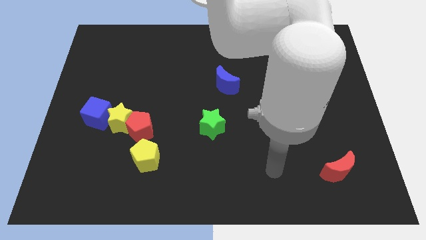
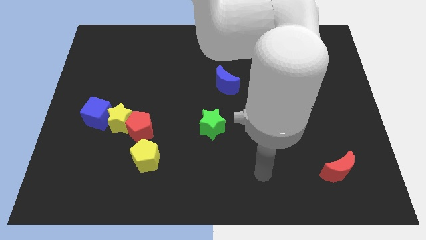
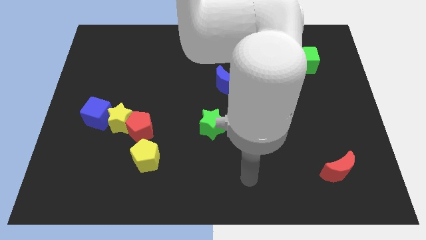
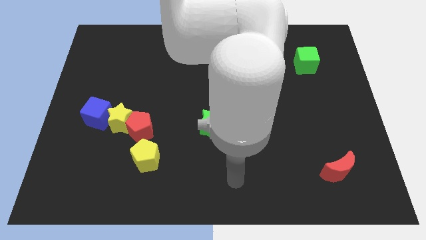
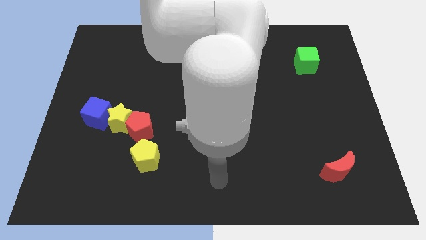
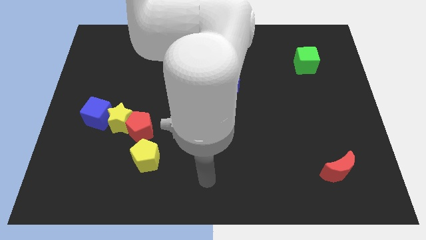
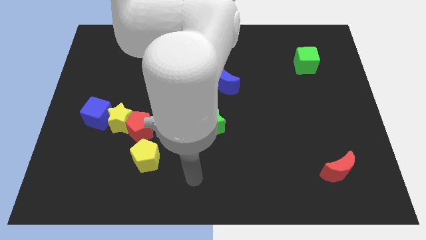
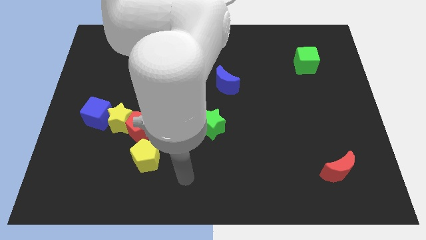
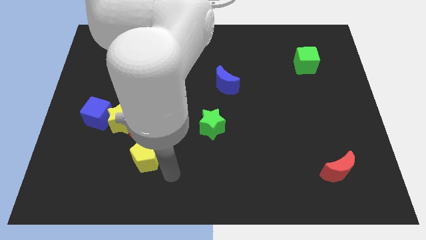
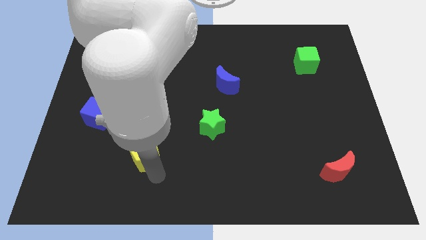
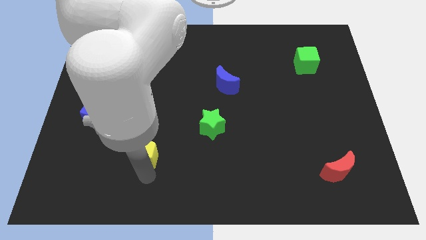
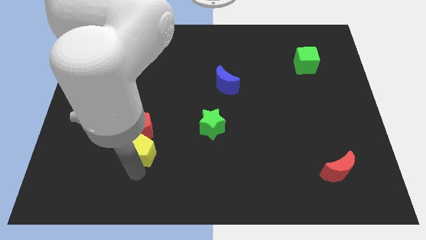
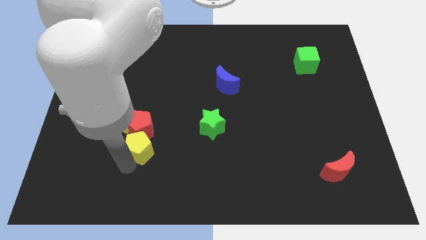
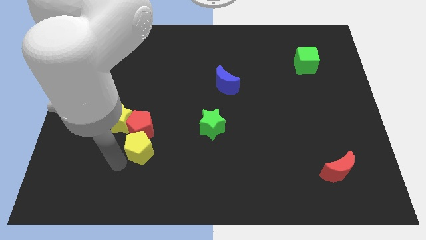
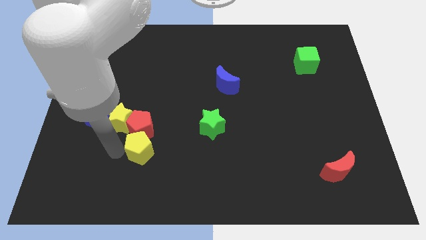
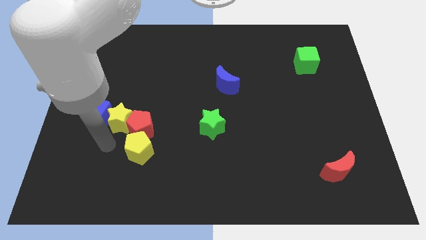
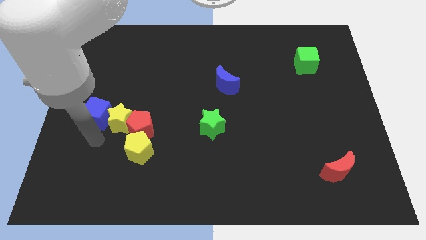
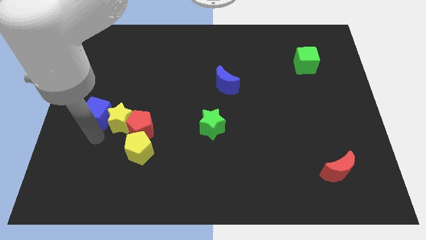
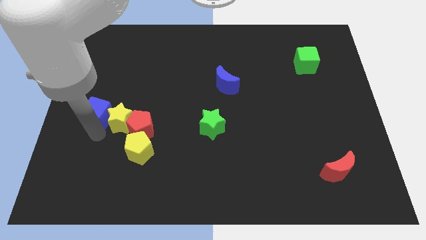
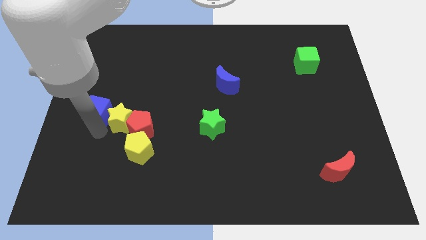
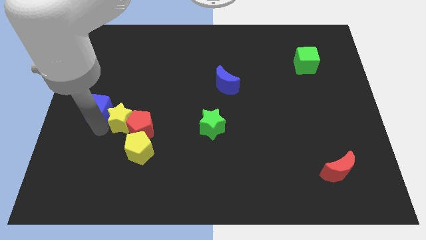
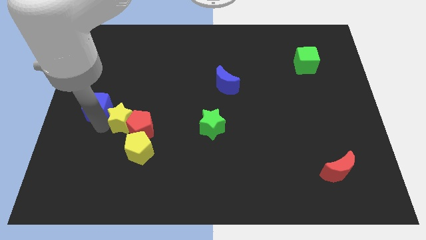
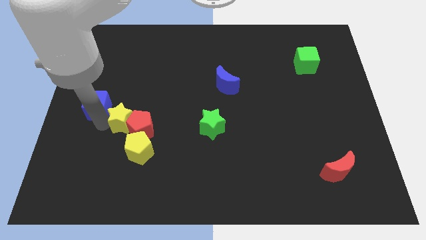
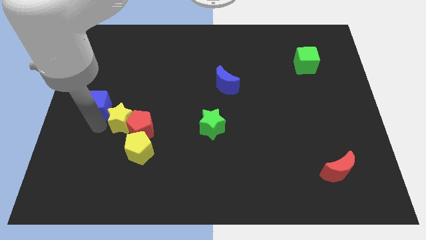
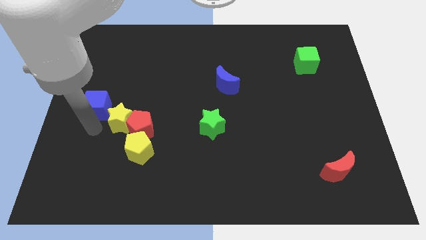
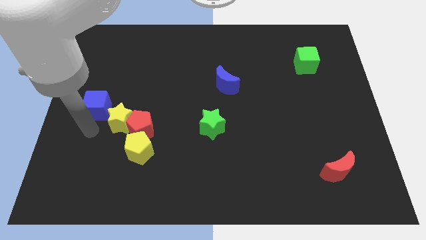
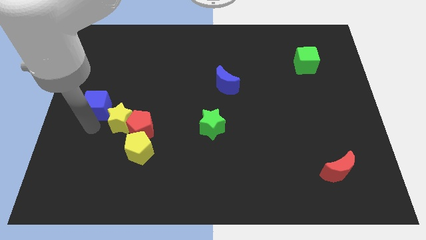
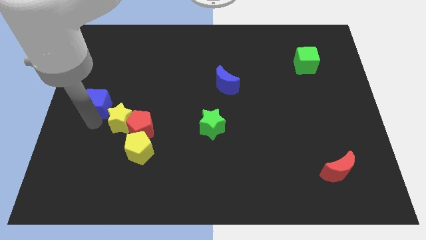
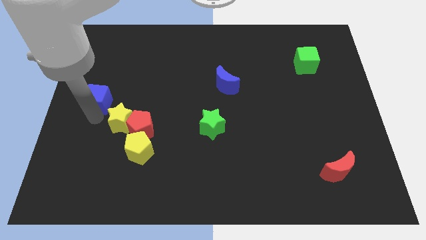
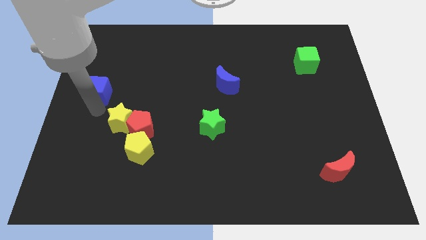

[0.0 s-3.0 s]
move the blue cube a little up

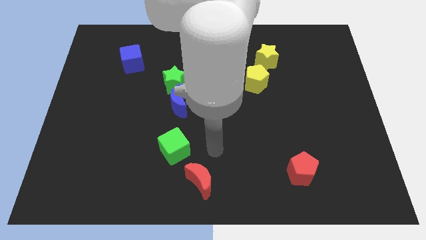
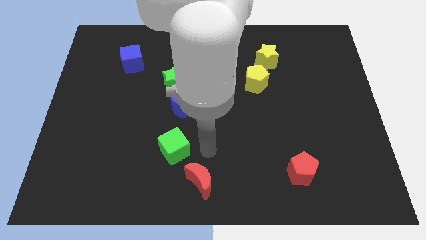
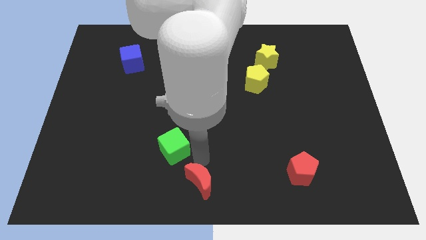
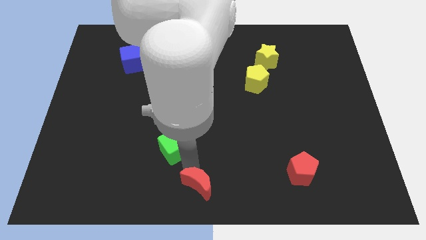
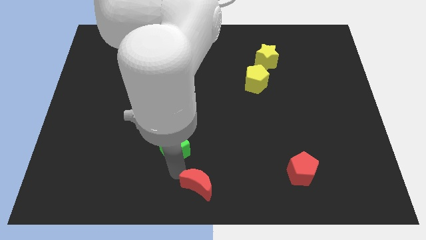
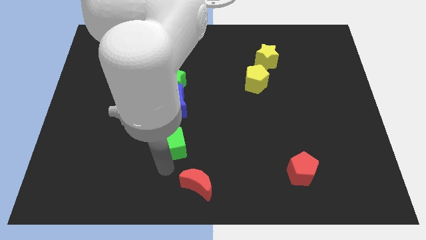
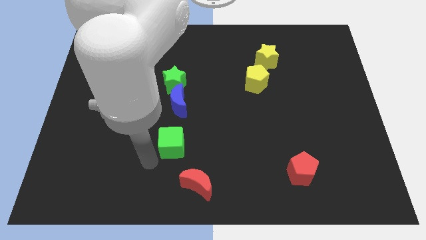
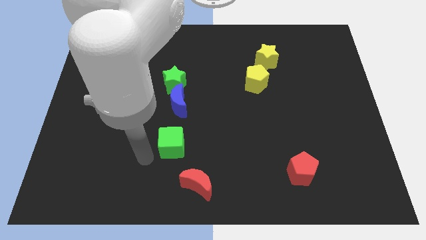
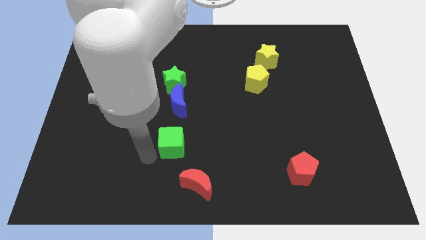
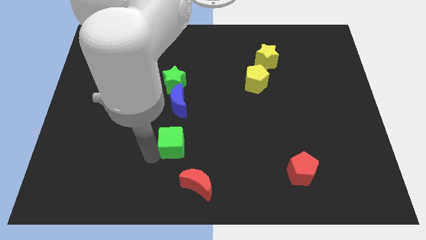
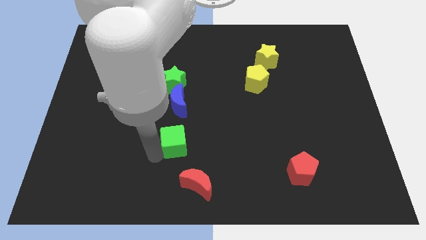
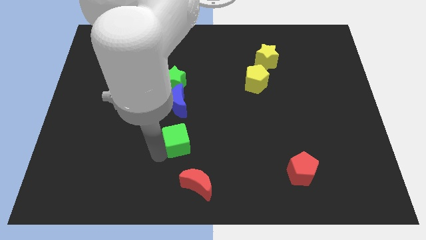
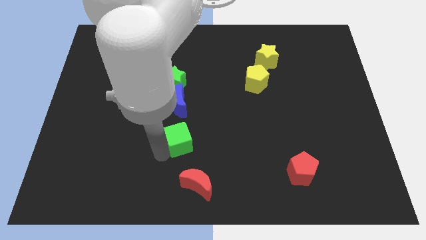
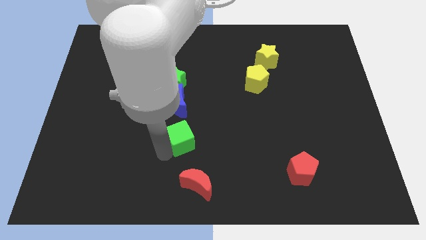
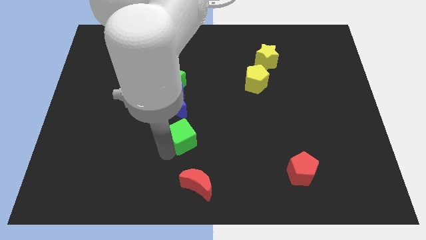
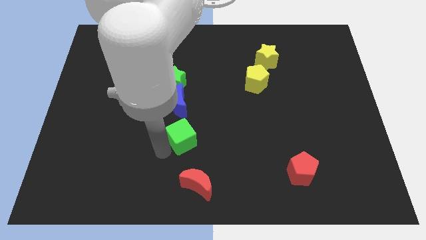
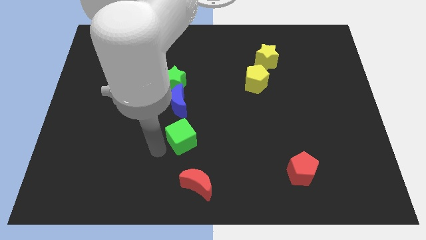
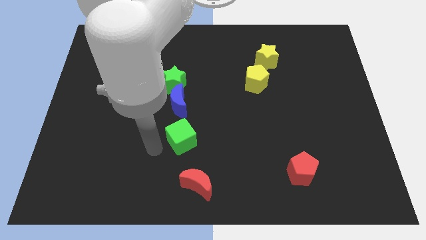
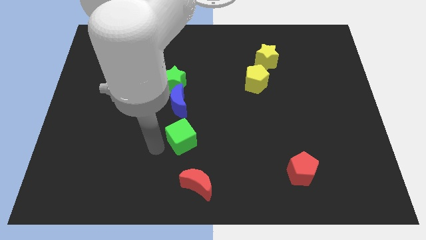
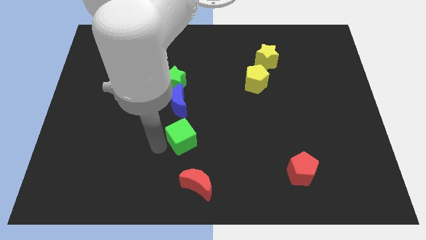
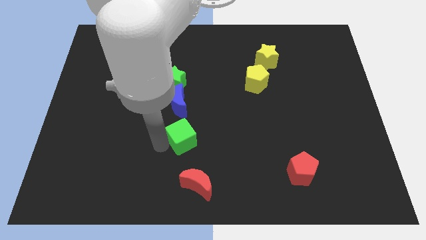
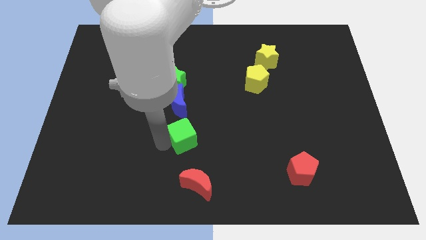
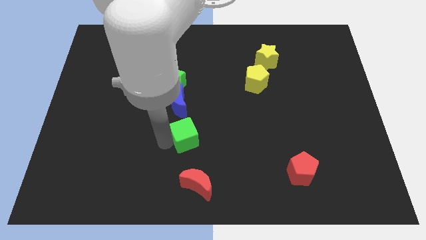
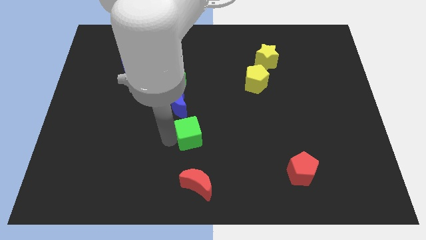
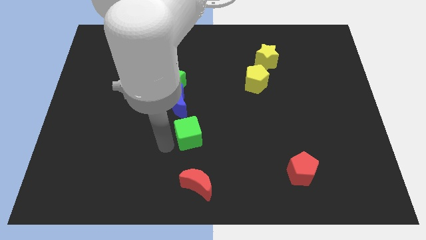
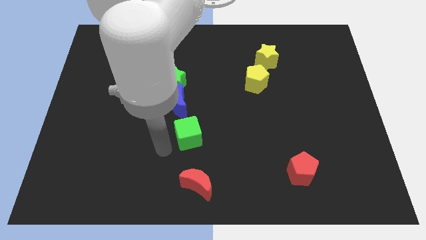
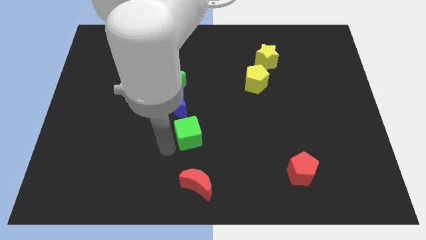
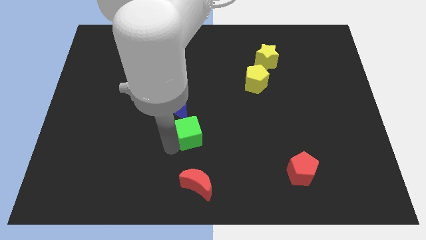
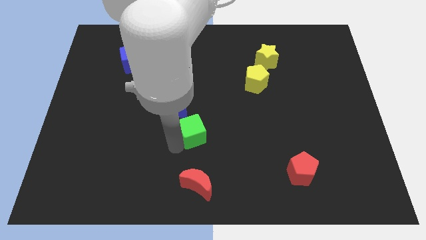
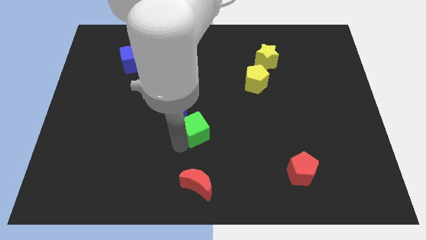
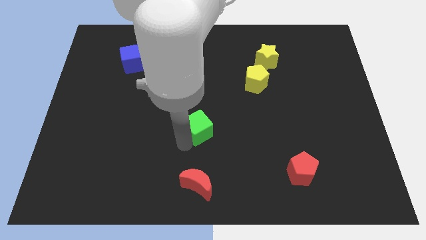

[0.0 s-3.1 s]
move the green cube a bit up and to the right

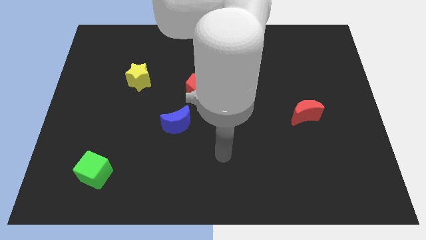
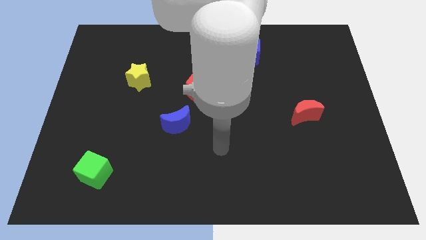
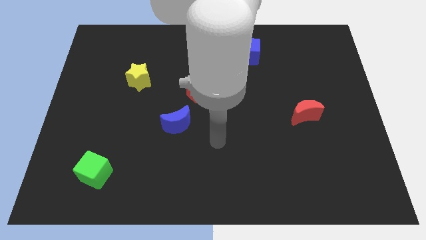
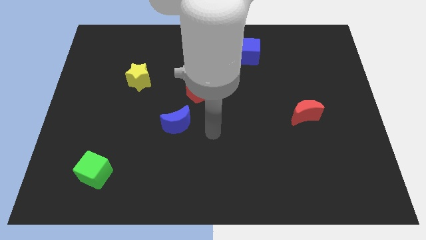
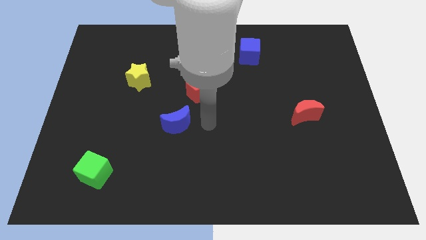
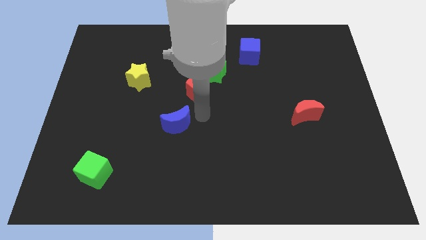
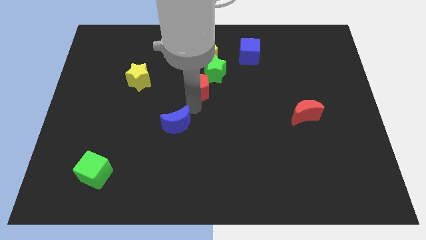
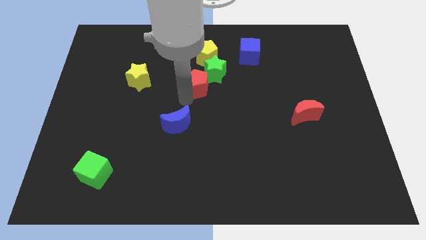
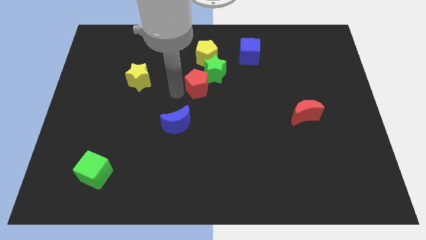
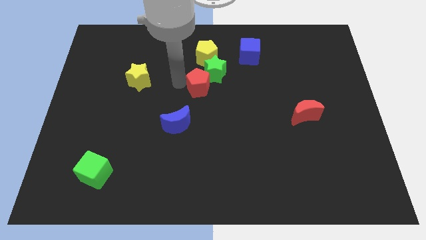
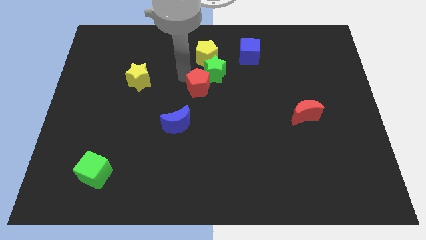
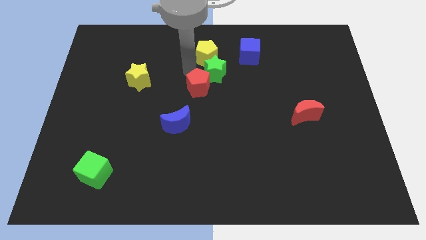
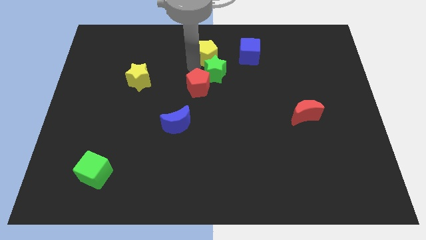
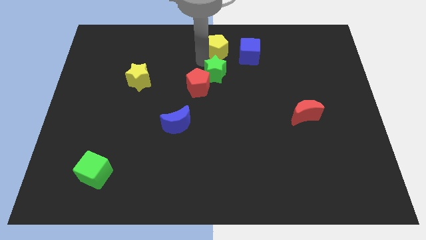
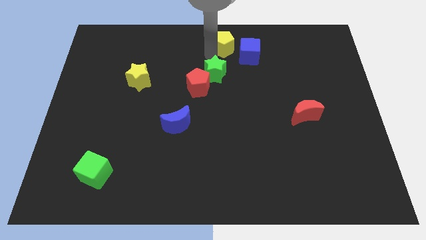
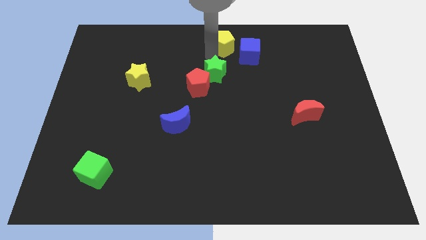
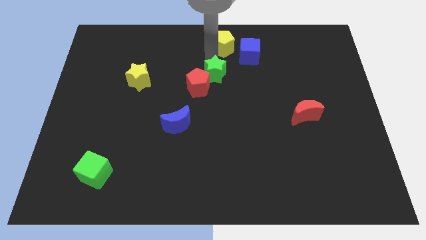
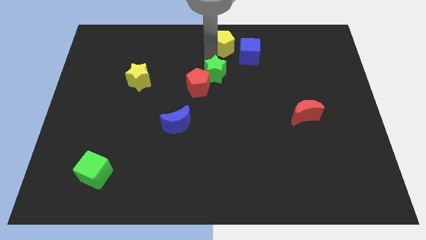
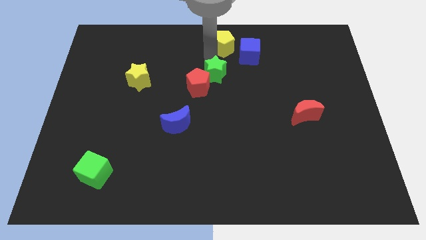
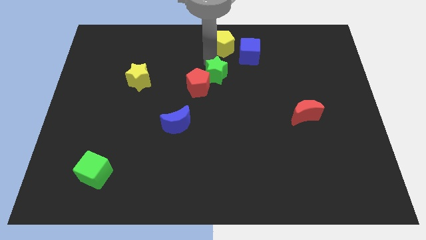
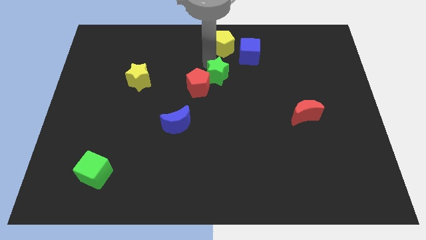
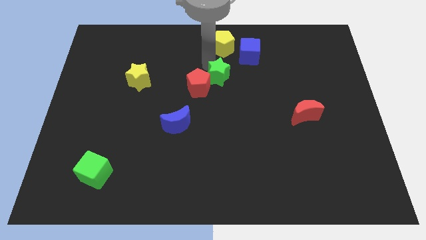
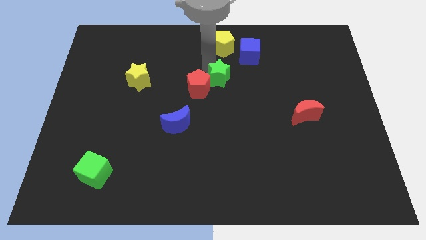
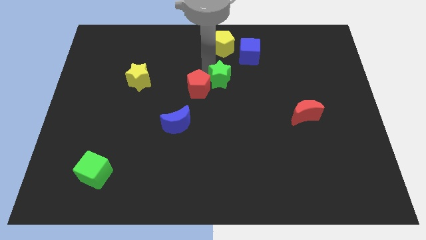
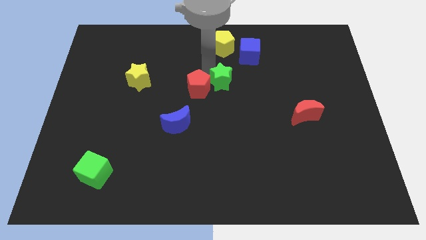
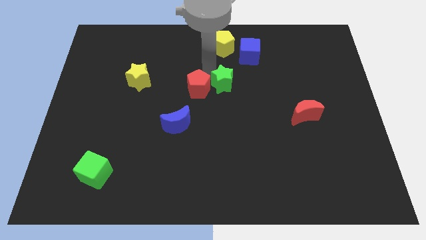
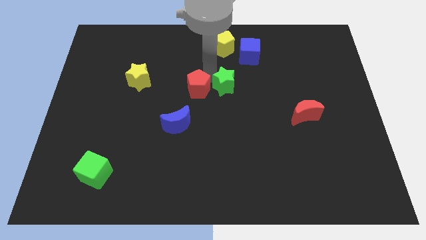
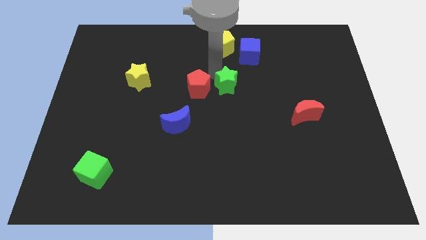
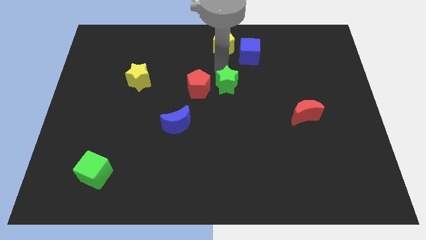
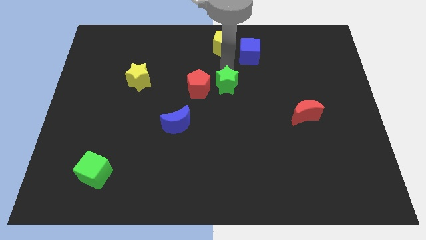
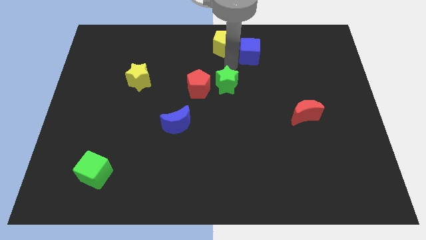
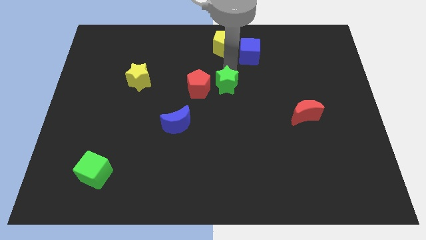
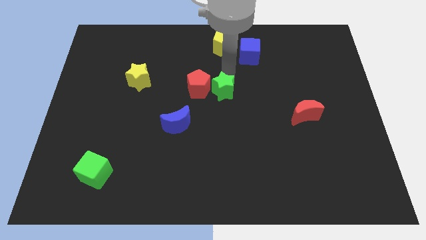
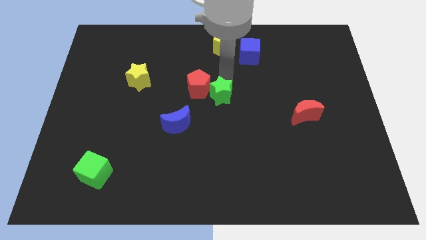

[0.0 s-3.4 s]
slide the green star downwards somewhat
